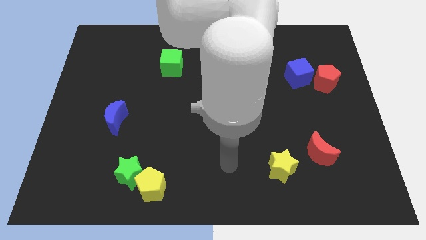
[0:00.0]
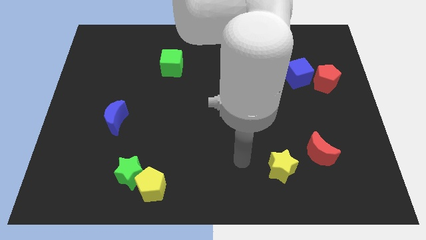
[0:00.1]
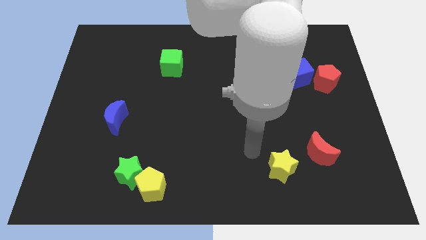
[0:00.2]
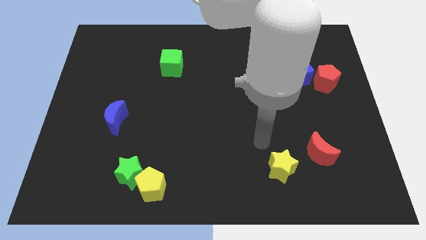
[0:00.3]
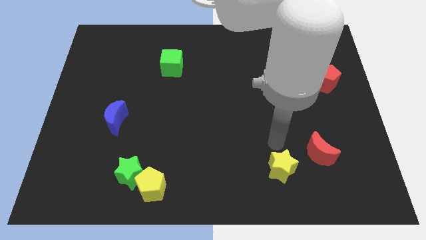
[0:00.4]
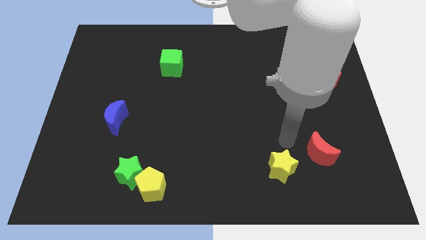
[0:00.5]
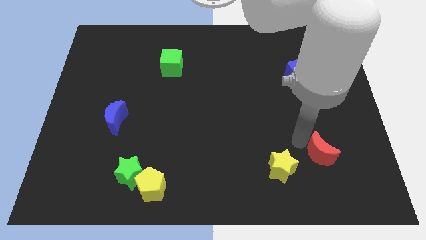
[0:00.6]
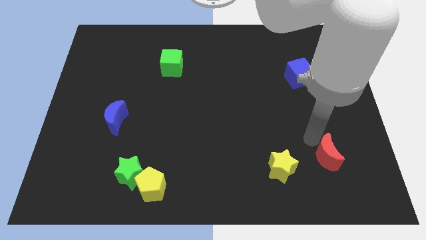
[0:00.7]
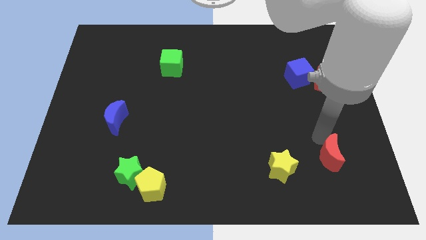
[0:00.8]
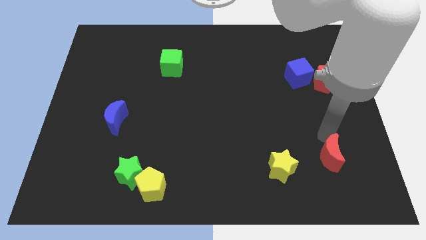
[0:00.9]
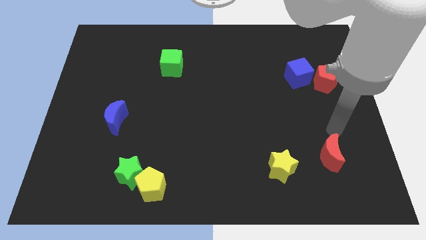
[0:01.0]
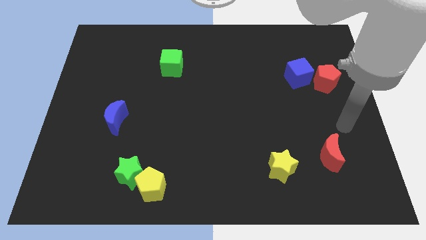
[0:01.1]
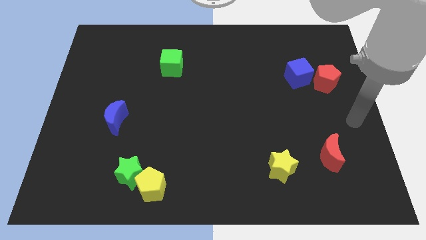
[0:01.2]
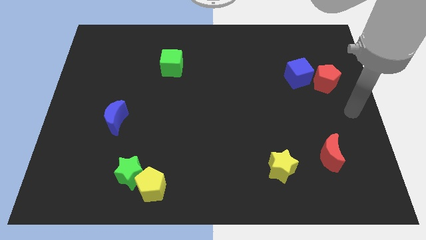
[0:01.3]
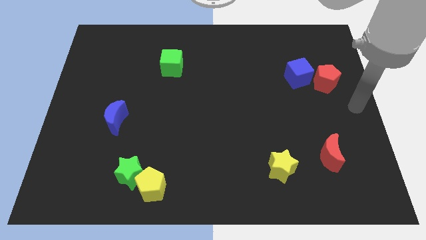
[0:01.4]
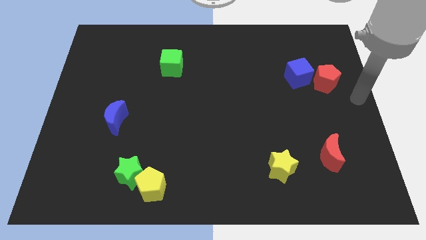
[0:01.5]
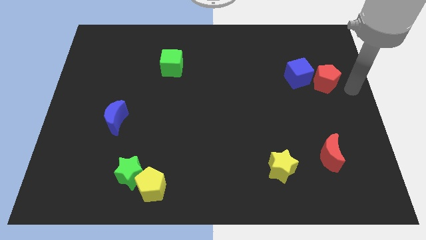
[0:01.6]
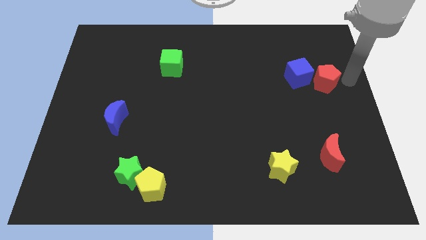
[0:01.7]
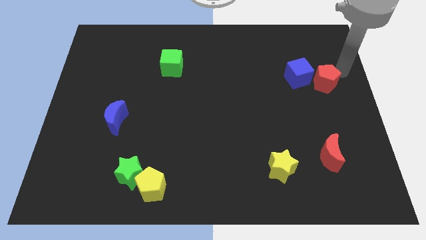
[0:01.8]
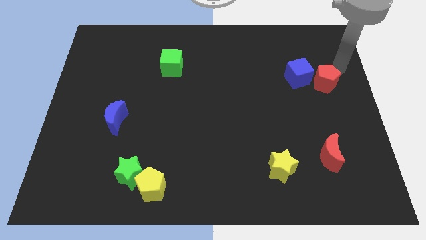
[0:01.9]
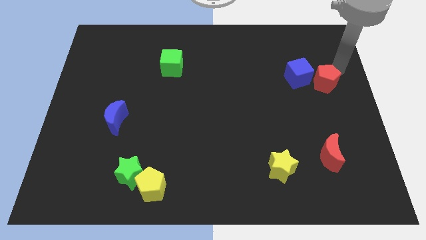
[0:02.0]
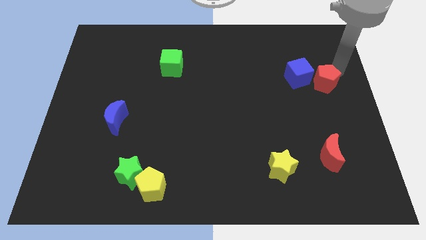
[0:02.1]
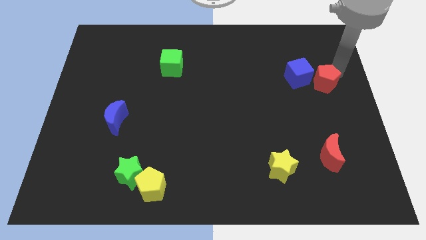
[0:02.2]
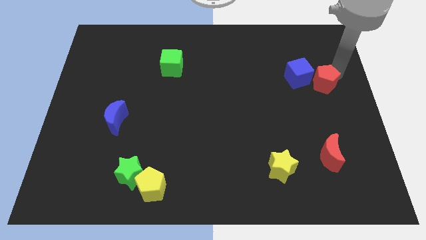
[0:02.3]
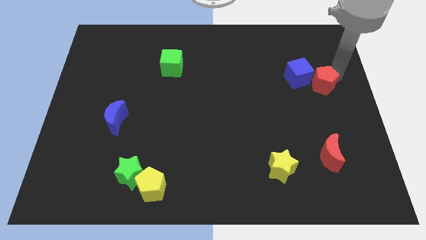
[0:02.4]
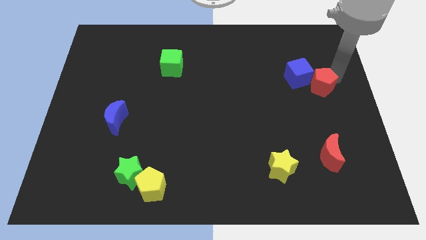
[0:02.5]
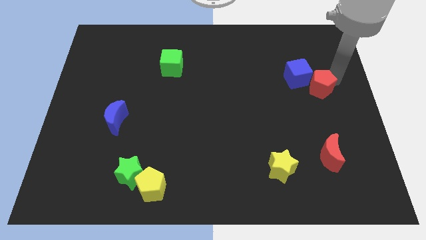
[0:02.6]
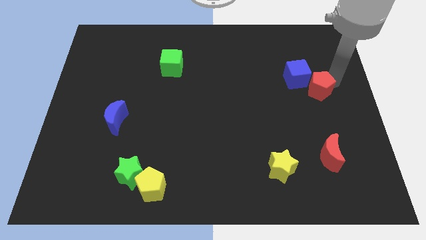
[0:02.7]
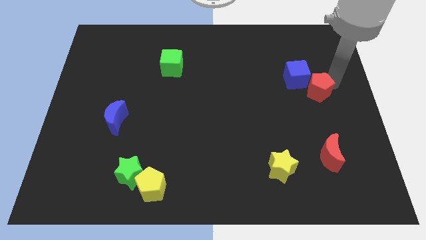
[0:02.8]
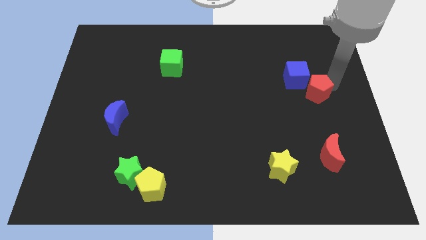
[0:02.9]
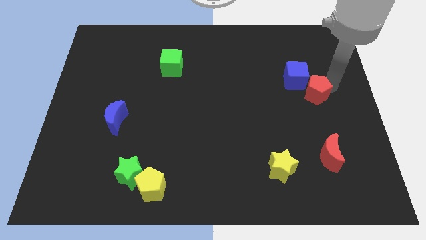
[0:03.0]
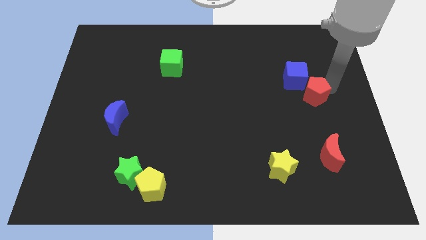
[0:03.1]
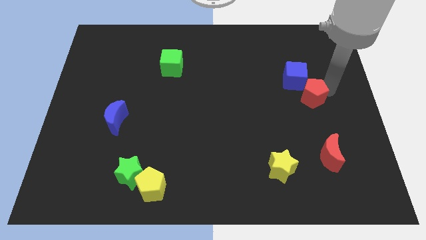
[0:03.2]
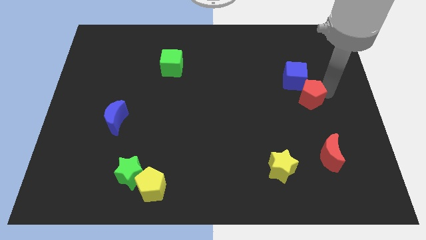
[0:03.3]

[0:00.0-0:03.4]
slightly move the red pentagon downwards and left

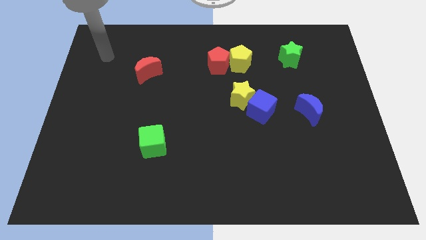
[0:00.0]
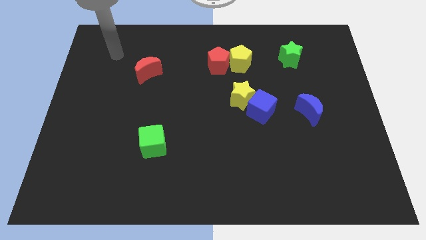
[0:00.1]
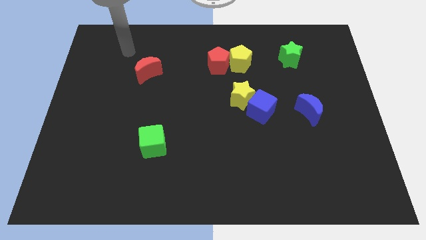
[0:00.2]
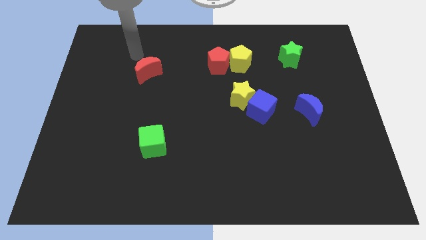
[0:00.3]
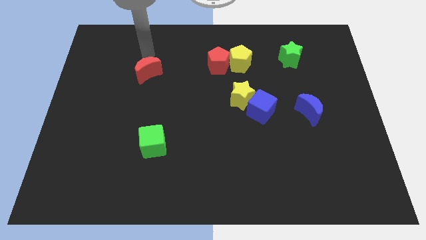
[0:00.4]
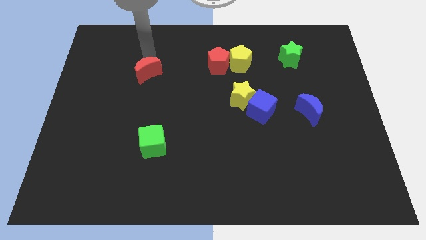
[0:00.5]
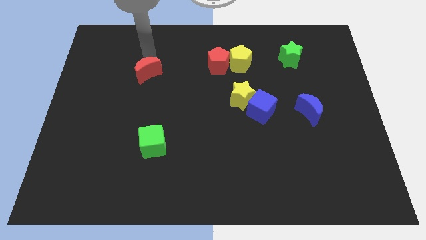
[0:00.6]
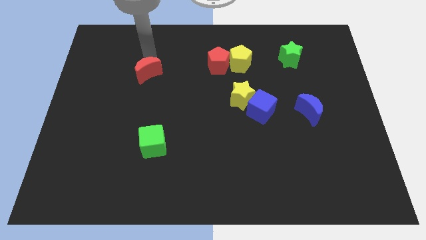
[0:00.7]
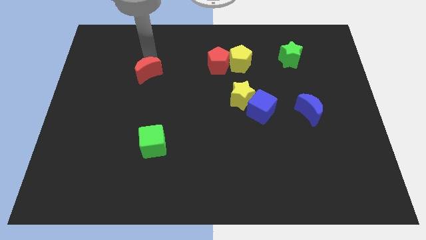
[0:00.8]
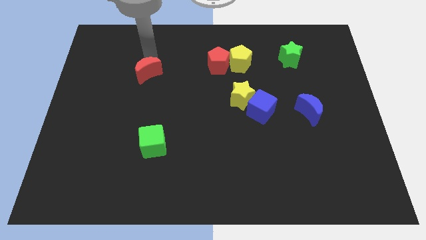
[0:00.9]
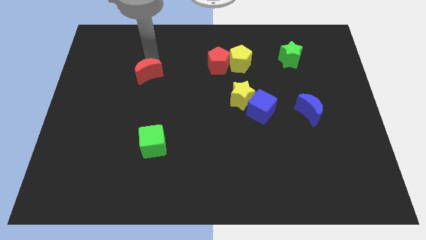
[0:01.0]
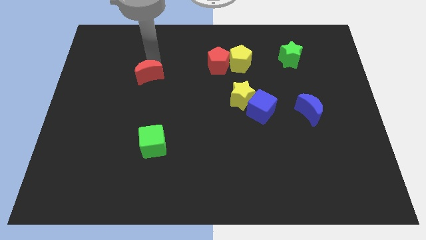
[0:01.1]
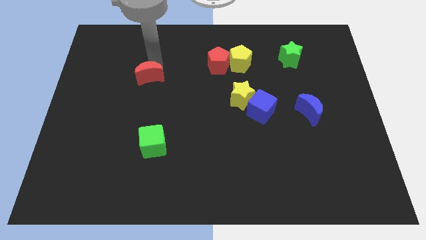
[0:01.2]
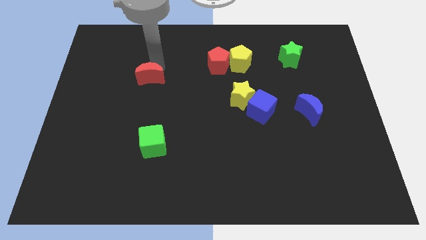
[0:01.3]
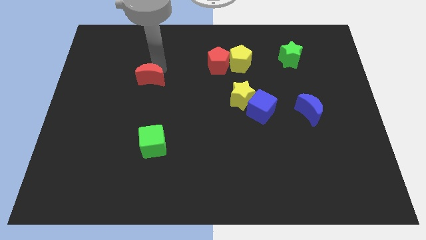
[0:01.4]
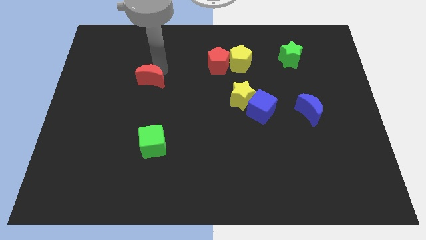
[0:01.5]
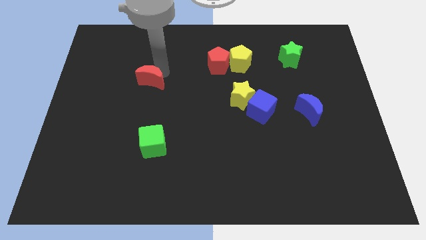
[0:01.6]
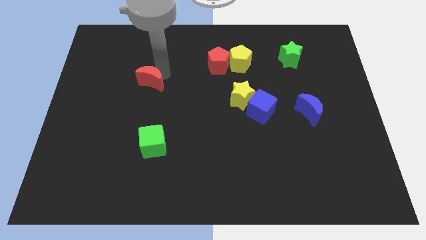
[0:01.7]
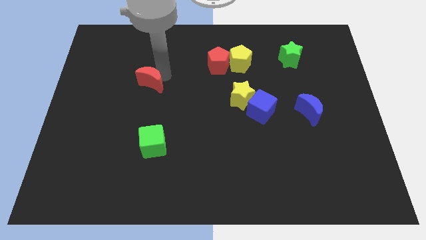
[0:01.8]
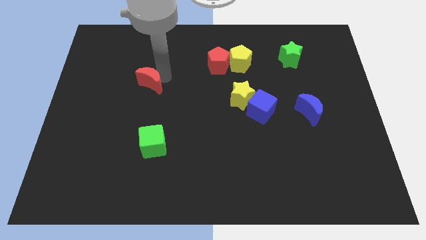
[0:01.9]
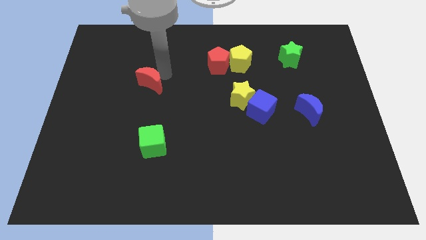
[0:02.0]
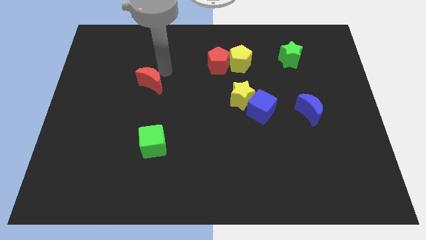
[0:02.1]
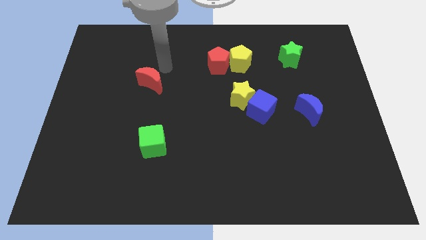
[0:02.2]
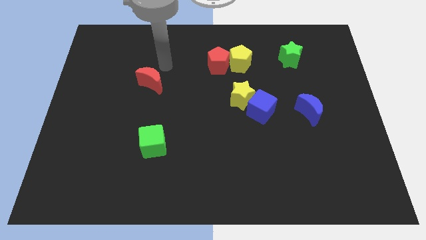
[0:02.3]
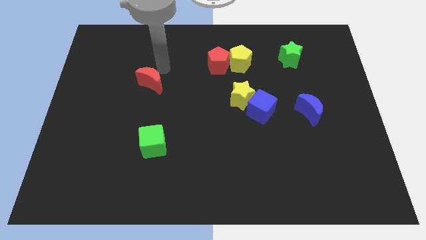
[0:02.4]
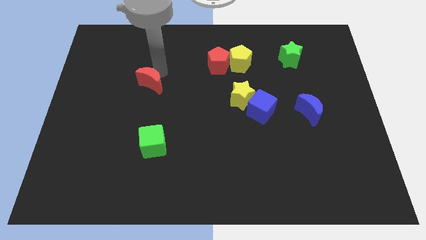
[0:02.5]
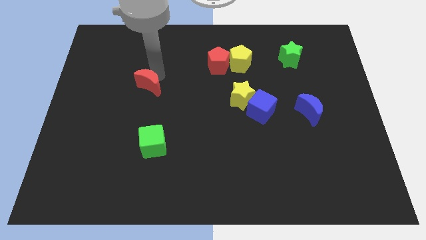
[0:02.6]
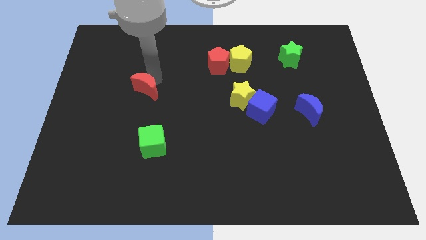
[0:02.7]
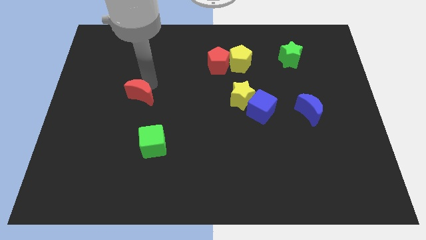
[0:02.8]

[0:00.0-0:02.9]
slightly slide the red moon downwards

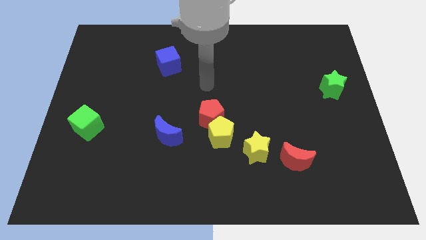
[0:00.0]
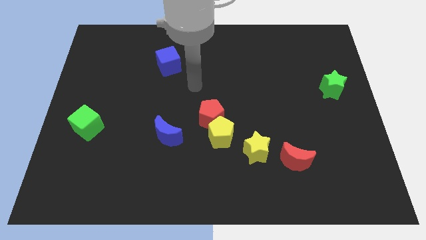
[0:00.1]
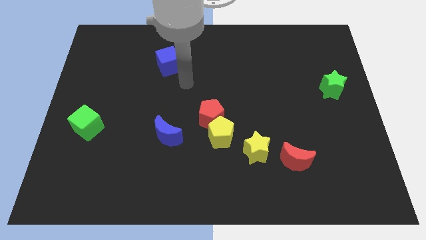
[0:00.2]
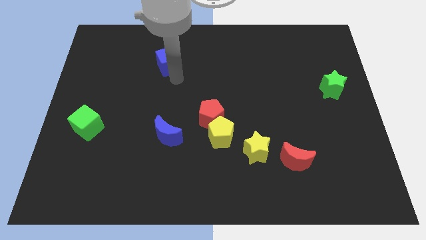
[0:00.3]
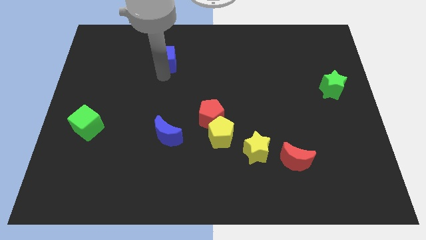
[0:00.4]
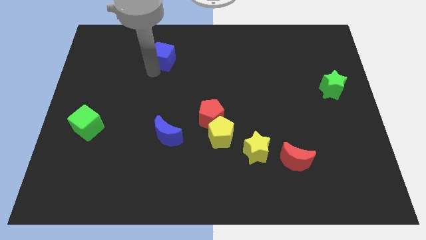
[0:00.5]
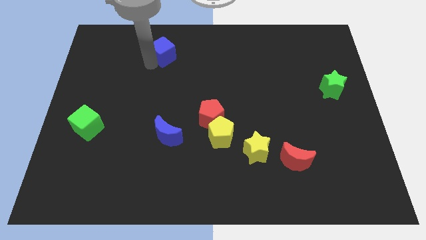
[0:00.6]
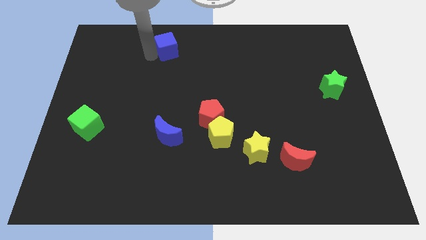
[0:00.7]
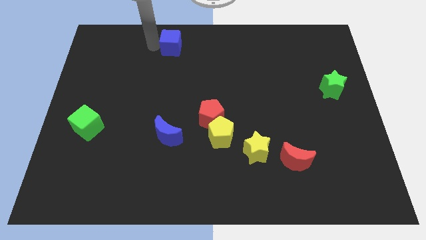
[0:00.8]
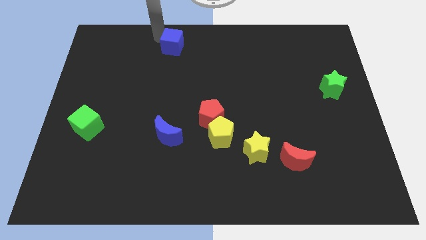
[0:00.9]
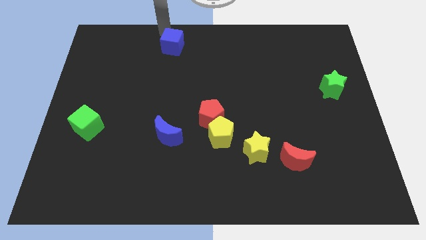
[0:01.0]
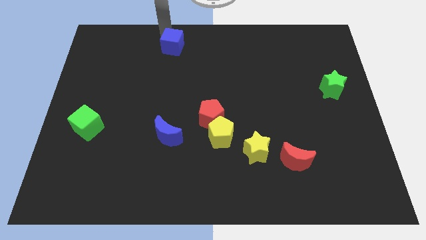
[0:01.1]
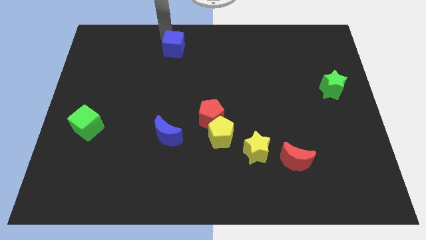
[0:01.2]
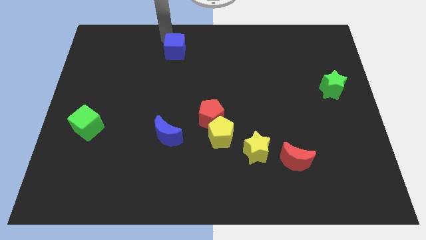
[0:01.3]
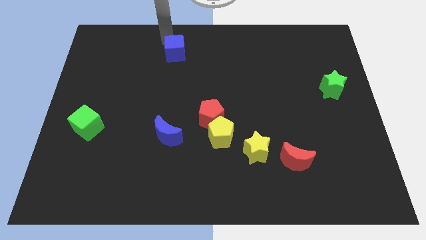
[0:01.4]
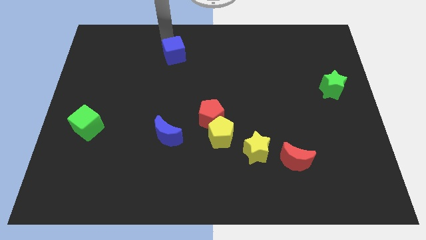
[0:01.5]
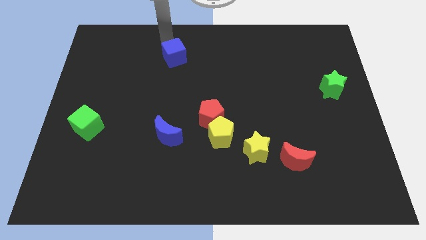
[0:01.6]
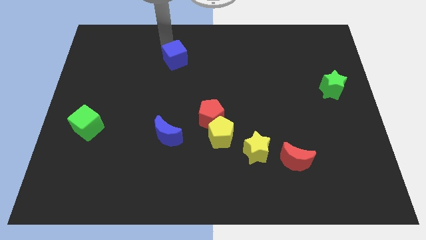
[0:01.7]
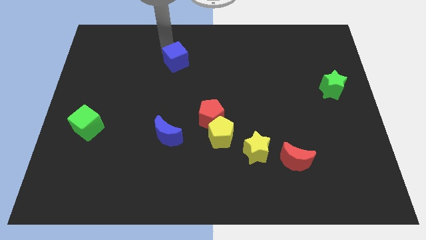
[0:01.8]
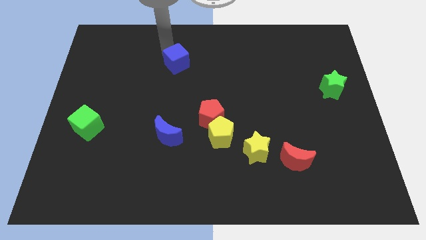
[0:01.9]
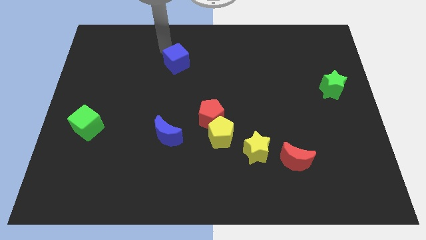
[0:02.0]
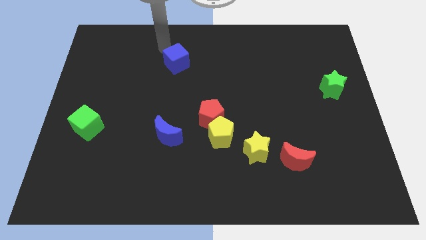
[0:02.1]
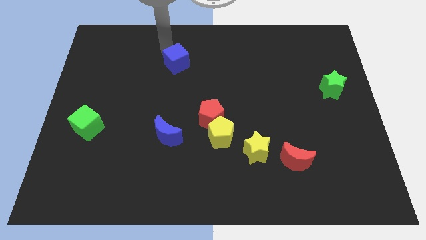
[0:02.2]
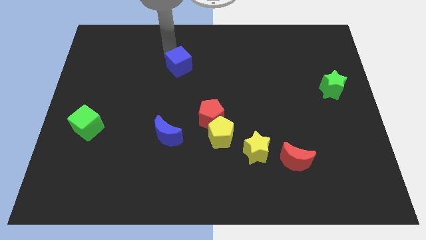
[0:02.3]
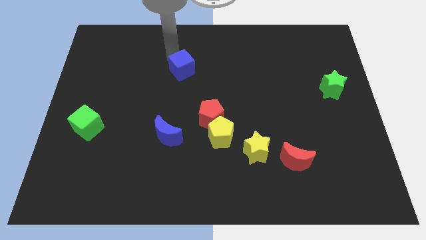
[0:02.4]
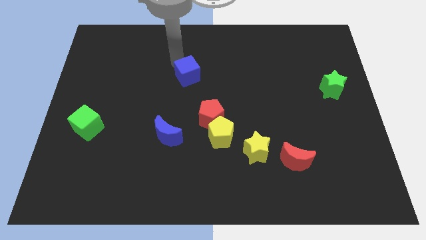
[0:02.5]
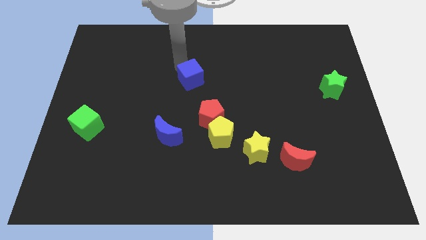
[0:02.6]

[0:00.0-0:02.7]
slide the blue cube downwards and to the right slightly
